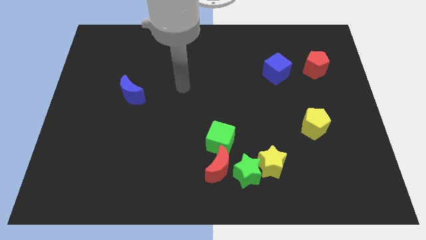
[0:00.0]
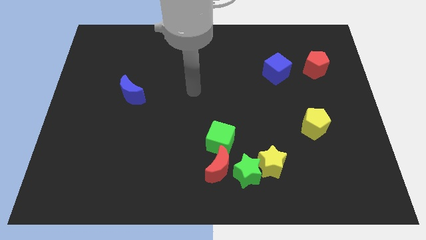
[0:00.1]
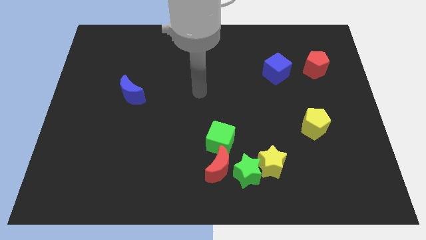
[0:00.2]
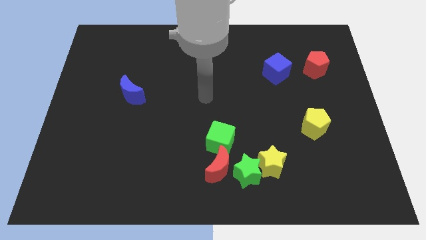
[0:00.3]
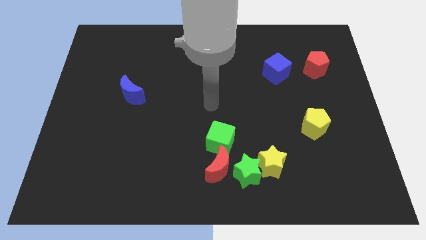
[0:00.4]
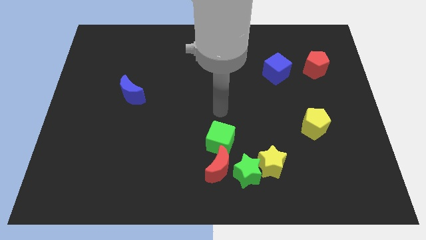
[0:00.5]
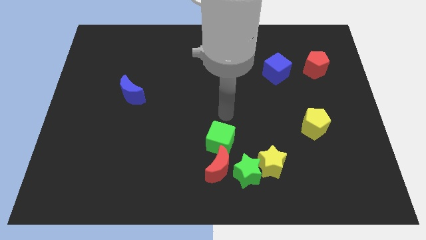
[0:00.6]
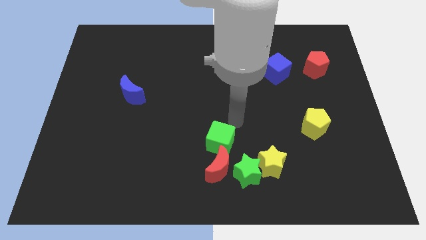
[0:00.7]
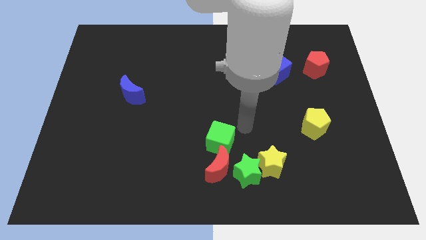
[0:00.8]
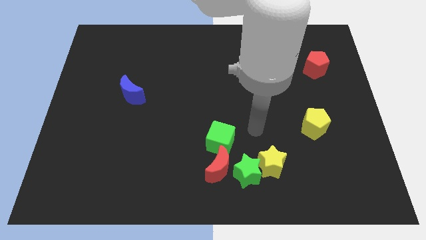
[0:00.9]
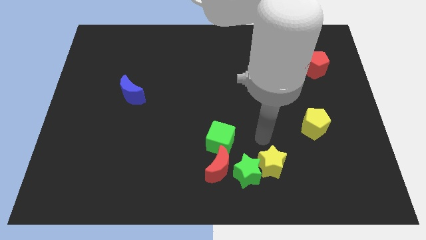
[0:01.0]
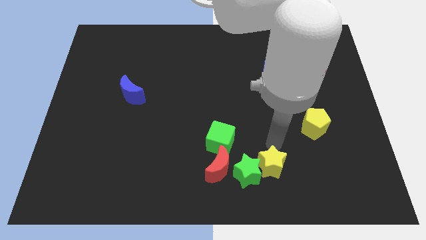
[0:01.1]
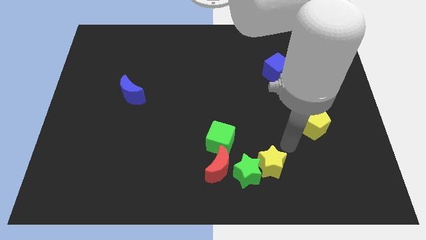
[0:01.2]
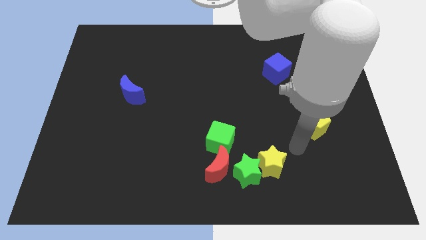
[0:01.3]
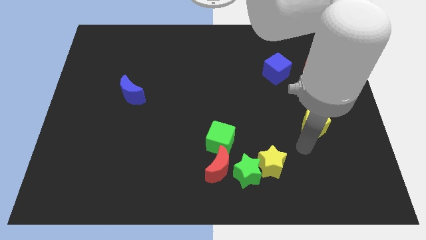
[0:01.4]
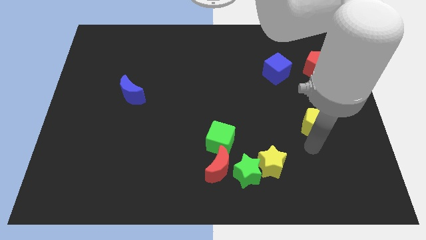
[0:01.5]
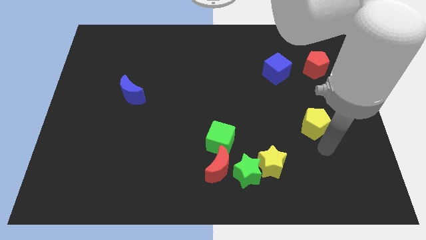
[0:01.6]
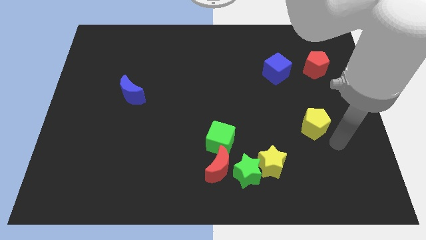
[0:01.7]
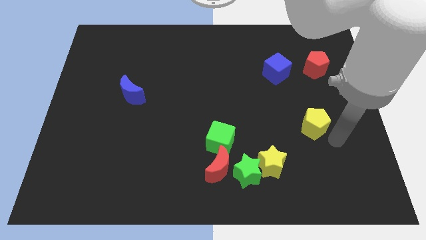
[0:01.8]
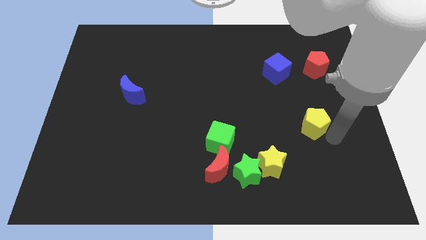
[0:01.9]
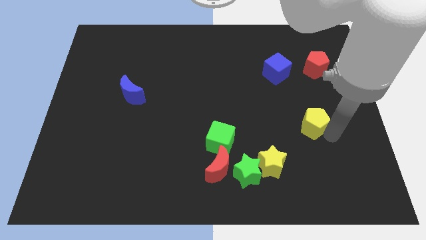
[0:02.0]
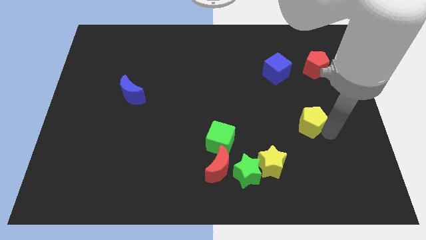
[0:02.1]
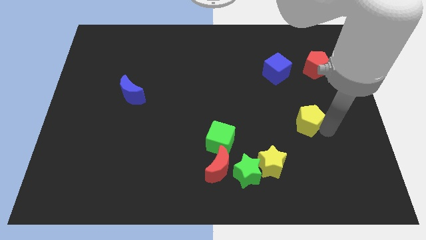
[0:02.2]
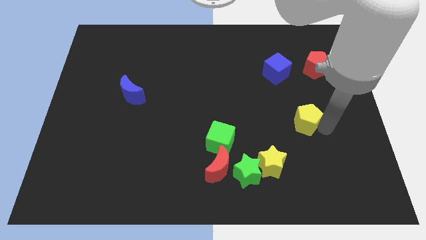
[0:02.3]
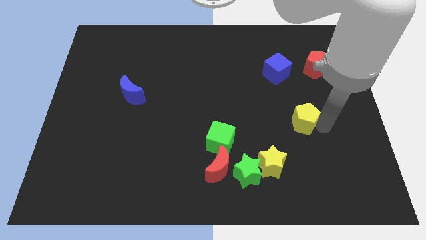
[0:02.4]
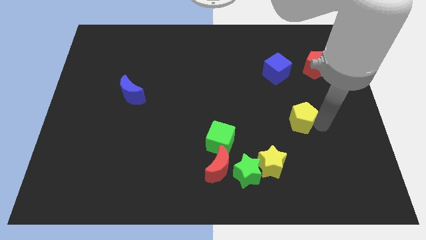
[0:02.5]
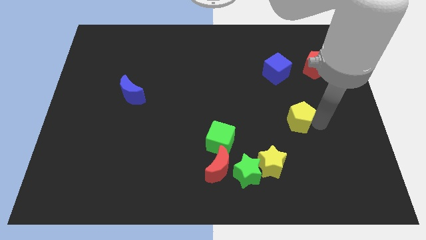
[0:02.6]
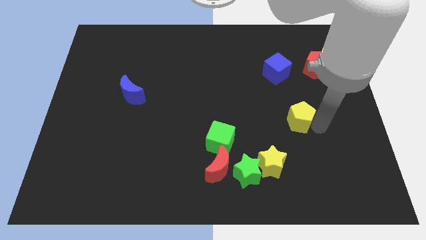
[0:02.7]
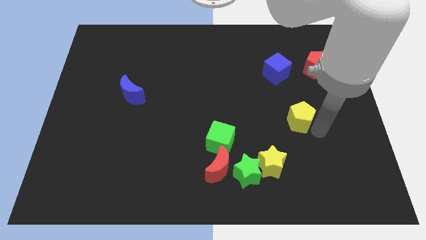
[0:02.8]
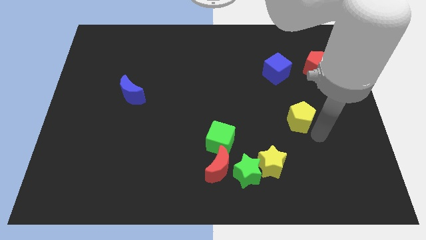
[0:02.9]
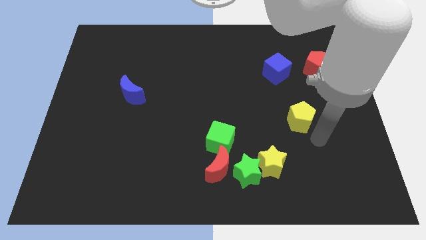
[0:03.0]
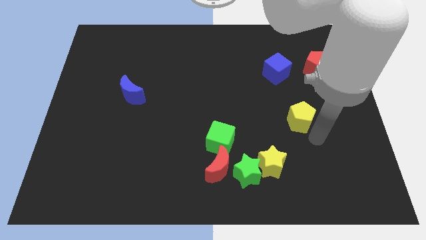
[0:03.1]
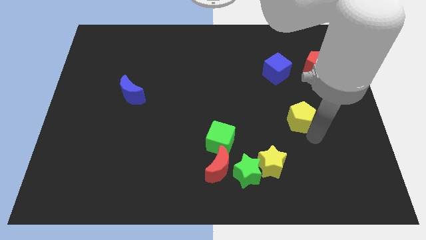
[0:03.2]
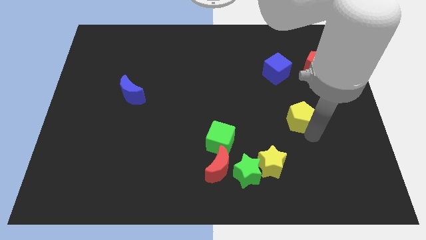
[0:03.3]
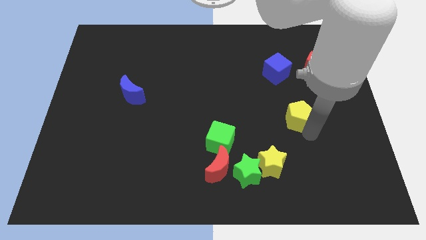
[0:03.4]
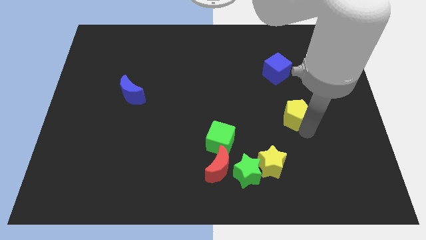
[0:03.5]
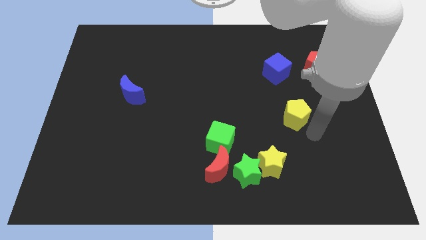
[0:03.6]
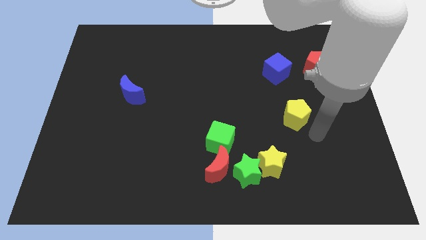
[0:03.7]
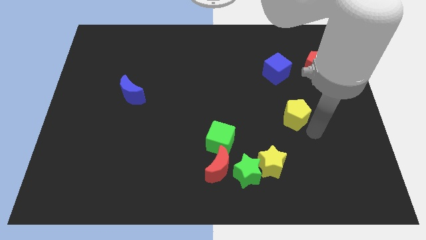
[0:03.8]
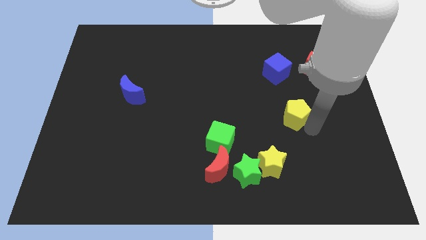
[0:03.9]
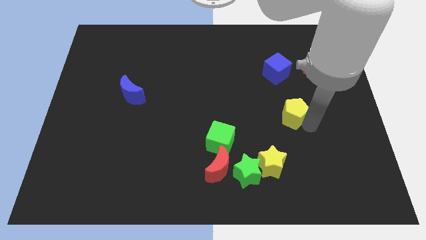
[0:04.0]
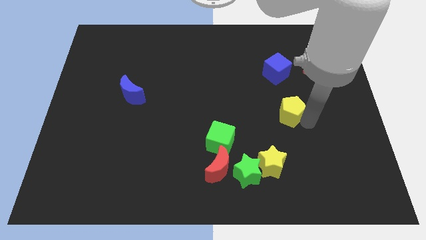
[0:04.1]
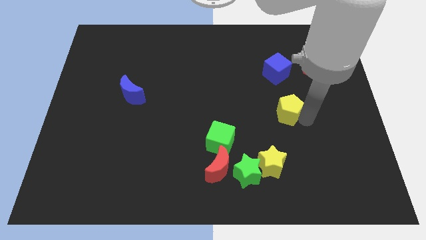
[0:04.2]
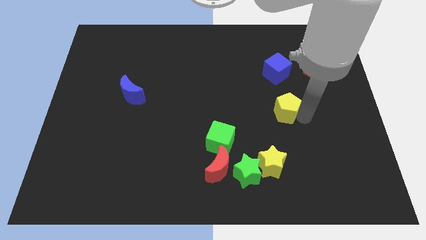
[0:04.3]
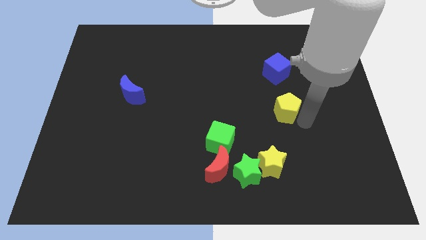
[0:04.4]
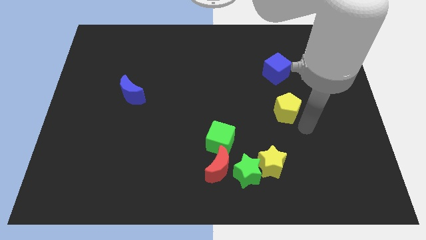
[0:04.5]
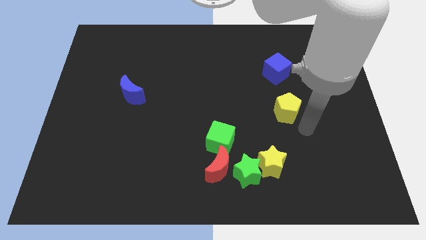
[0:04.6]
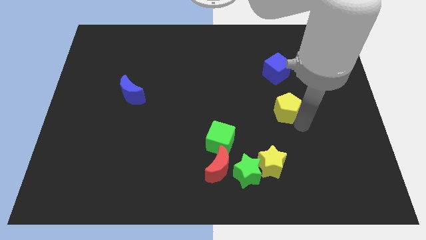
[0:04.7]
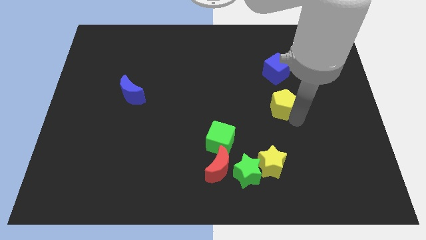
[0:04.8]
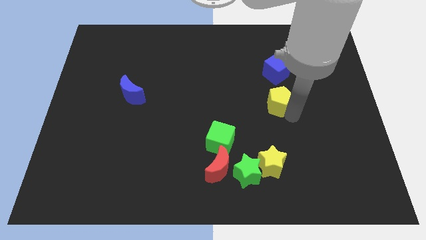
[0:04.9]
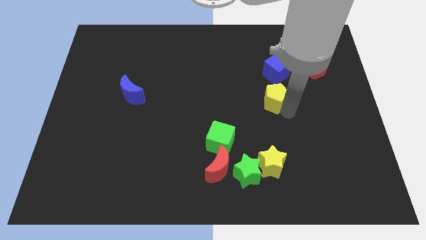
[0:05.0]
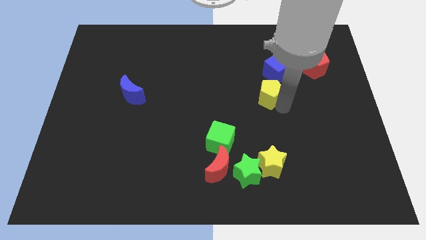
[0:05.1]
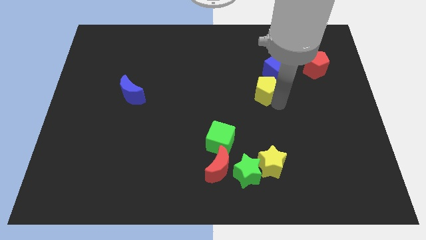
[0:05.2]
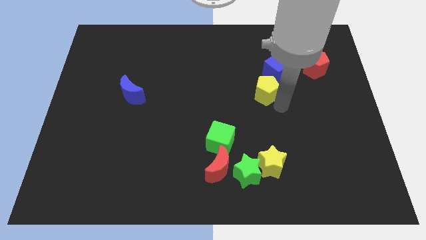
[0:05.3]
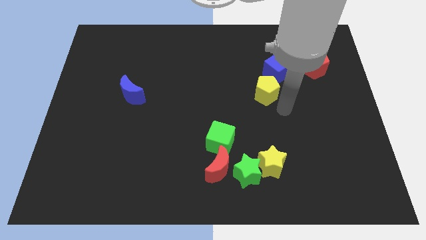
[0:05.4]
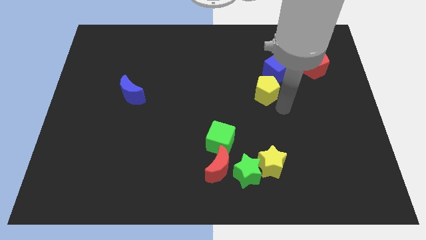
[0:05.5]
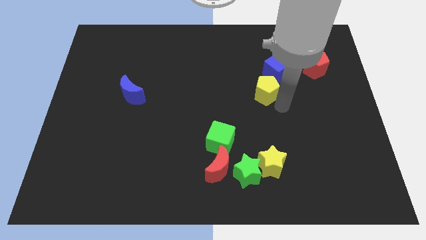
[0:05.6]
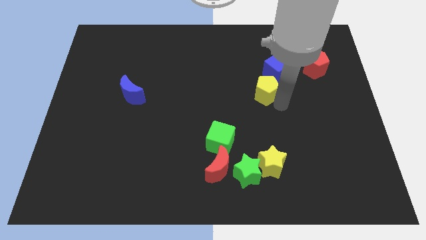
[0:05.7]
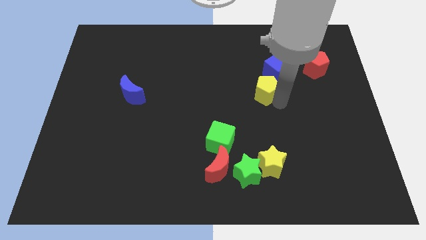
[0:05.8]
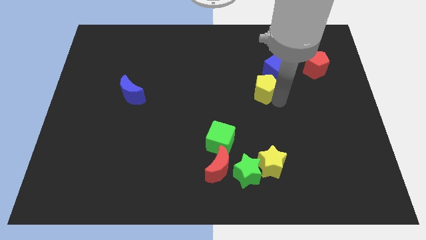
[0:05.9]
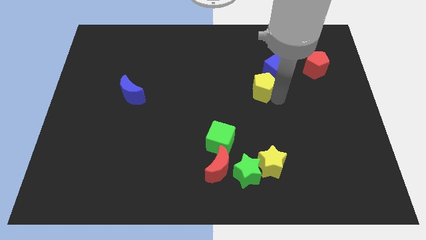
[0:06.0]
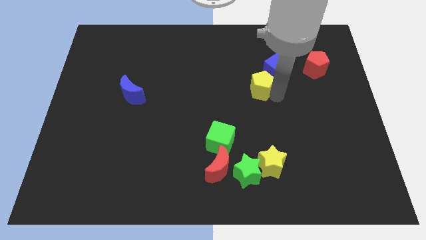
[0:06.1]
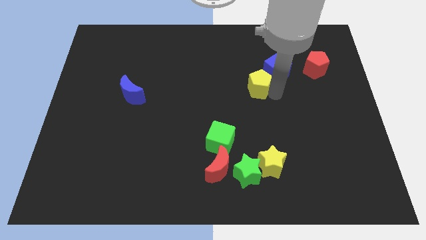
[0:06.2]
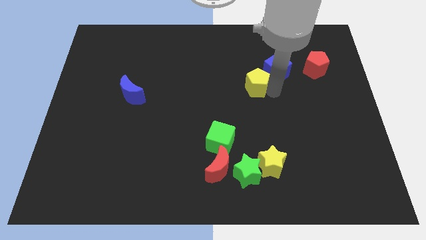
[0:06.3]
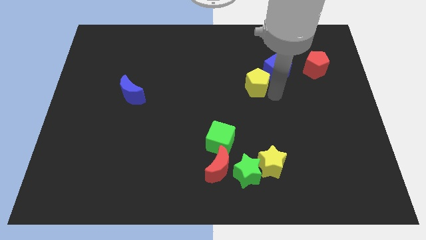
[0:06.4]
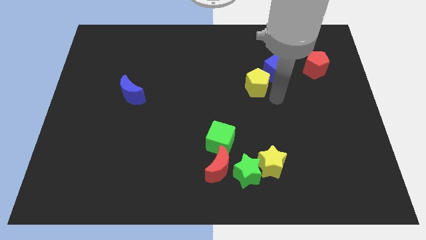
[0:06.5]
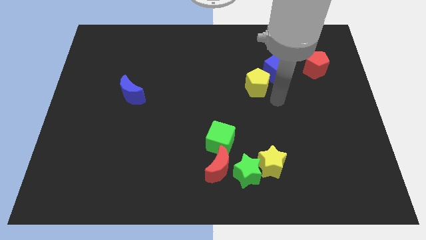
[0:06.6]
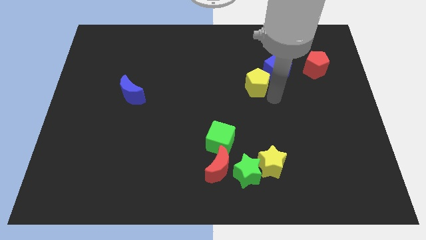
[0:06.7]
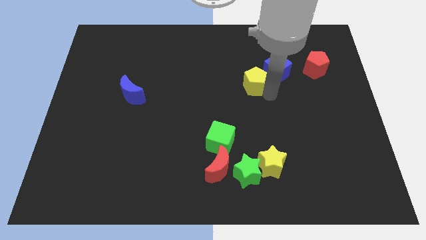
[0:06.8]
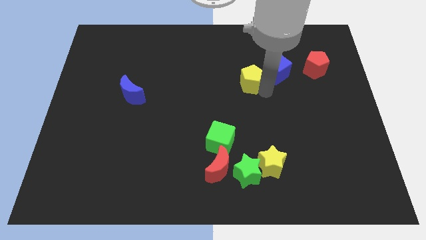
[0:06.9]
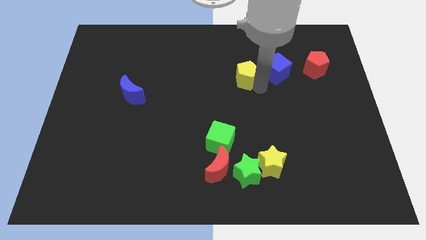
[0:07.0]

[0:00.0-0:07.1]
push the yellow pentagon diagonally up and to the left

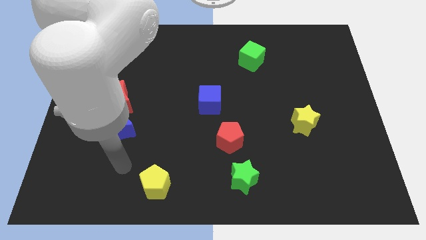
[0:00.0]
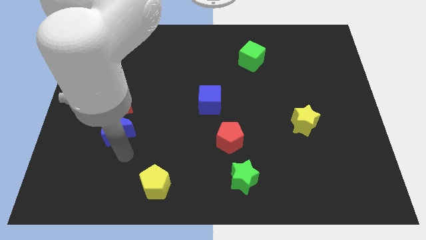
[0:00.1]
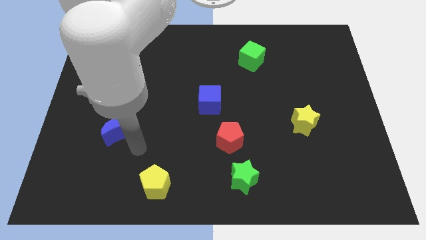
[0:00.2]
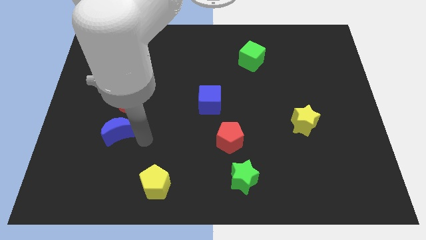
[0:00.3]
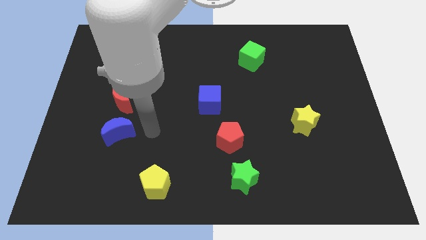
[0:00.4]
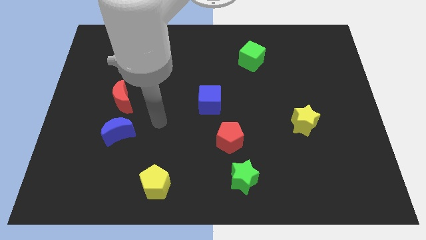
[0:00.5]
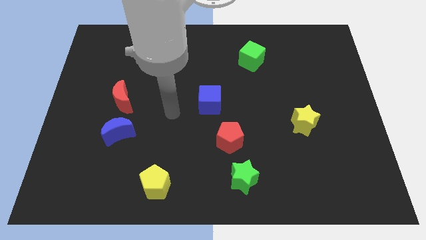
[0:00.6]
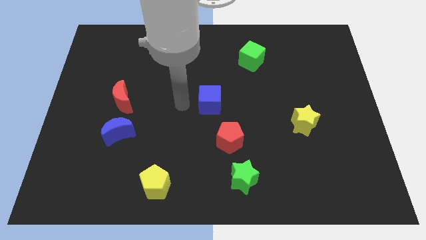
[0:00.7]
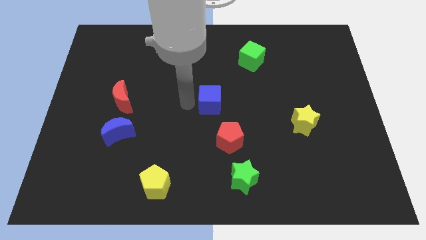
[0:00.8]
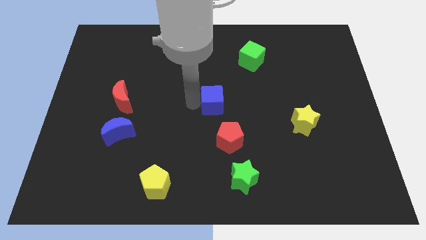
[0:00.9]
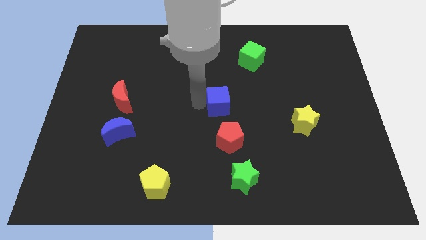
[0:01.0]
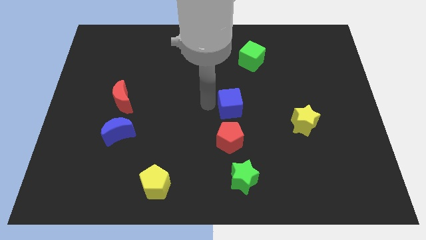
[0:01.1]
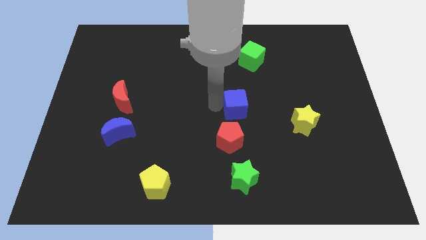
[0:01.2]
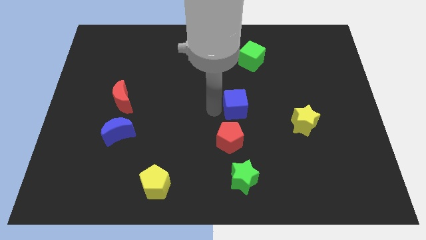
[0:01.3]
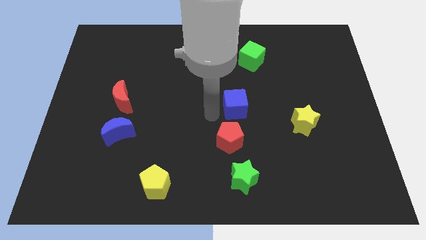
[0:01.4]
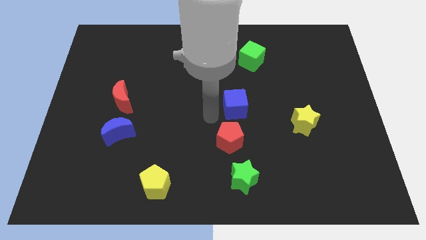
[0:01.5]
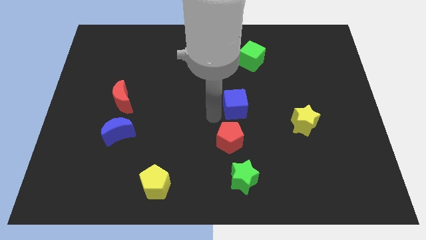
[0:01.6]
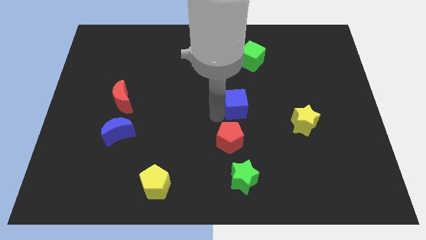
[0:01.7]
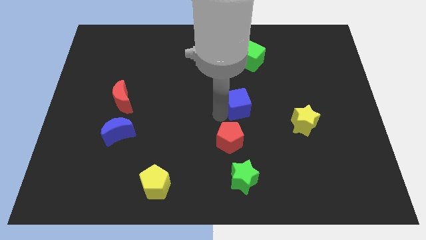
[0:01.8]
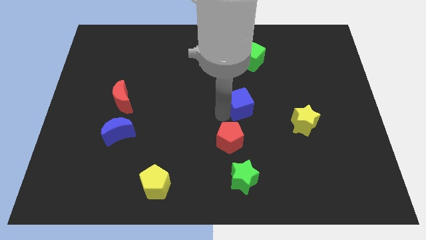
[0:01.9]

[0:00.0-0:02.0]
move the blue cube to the right a little bit
